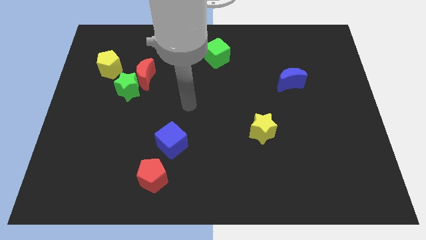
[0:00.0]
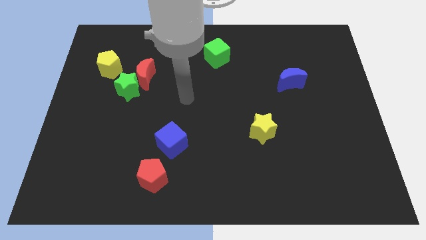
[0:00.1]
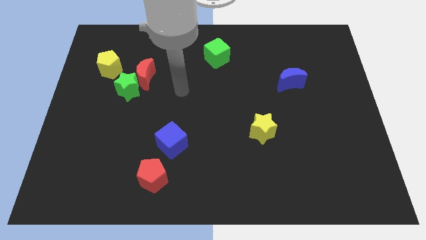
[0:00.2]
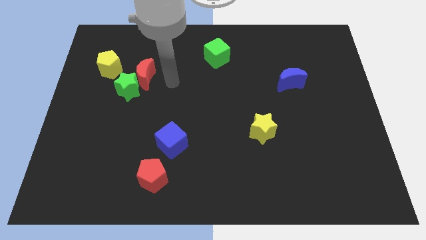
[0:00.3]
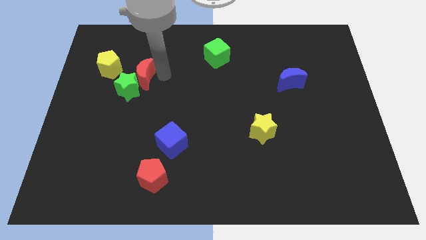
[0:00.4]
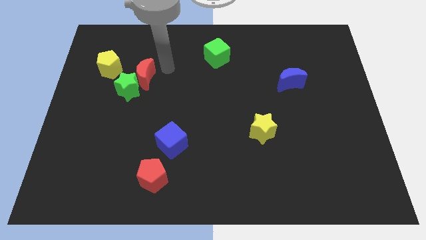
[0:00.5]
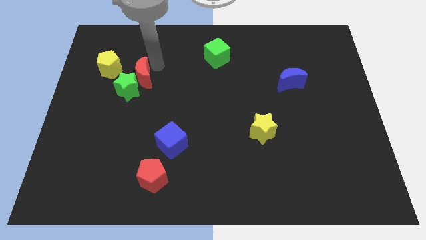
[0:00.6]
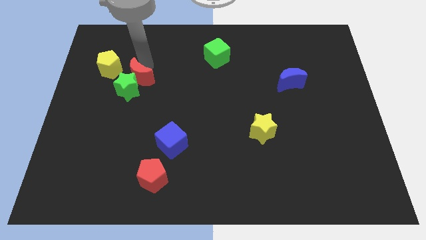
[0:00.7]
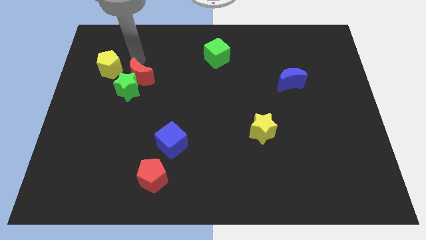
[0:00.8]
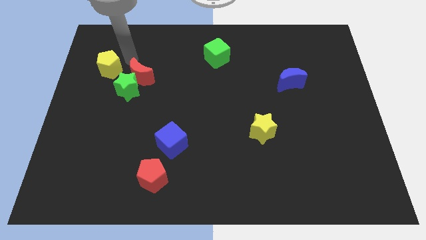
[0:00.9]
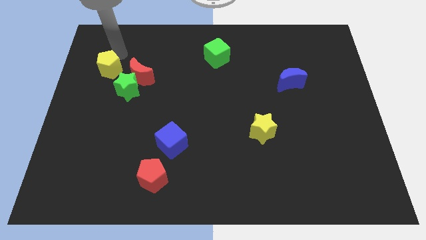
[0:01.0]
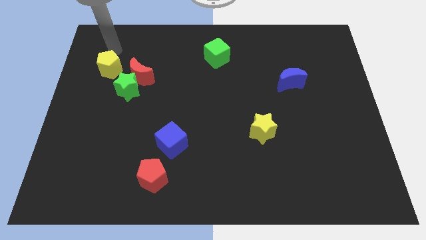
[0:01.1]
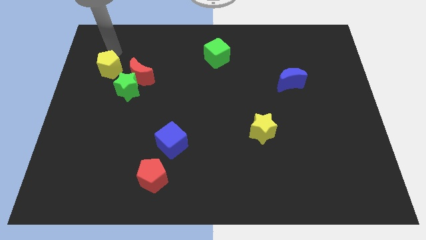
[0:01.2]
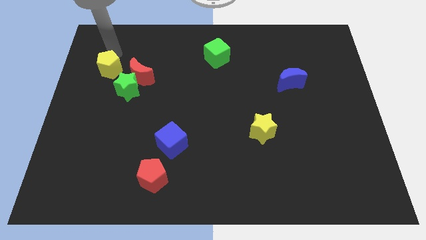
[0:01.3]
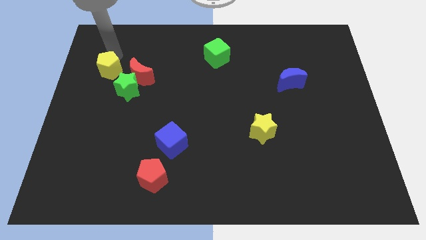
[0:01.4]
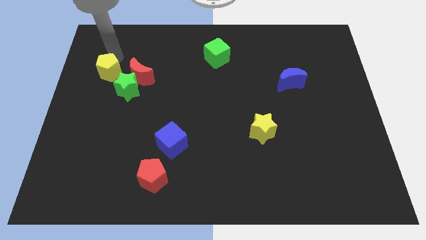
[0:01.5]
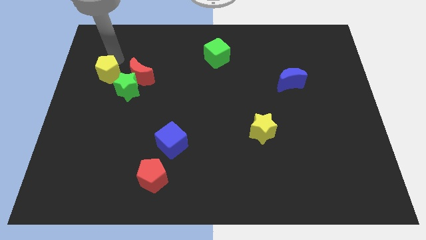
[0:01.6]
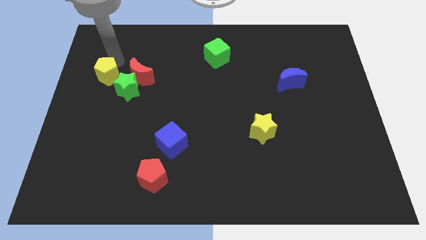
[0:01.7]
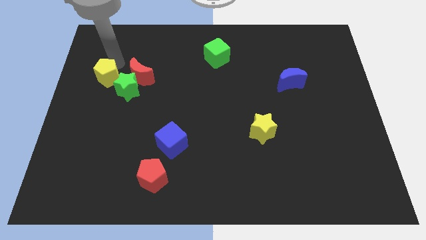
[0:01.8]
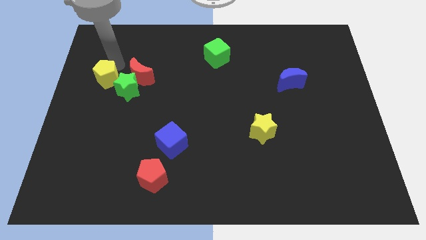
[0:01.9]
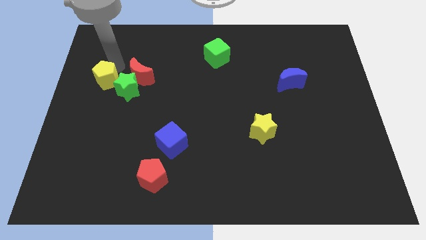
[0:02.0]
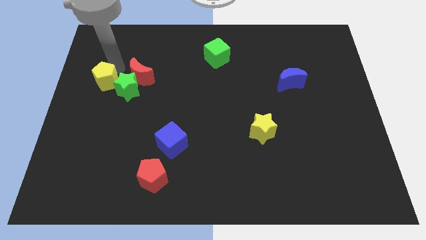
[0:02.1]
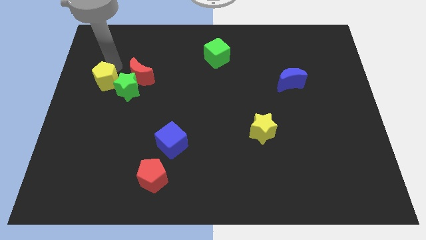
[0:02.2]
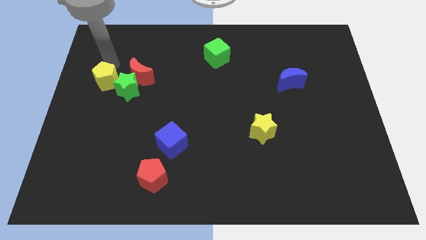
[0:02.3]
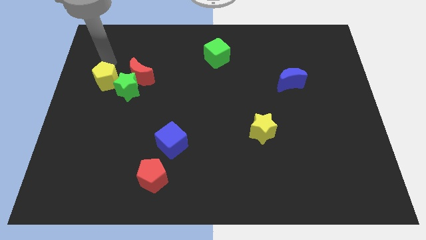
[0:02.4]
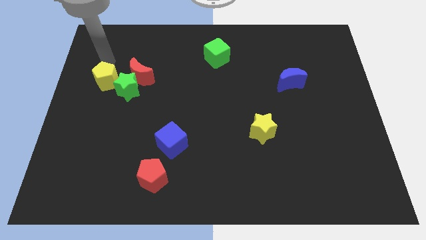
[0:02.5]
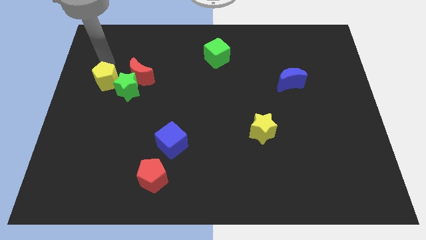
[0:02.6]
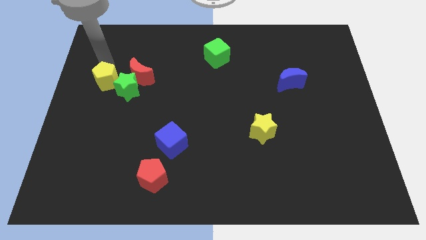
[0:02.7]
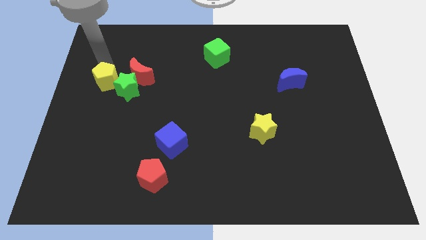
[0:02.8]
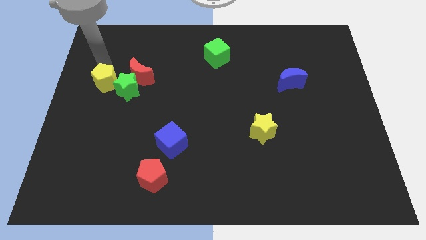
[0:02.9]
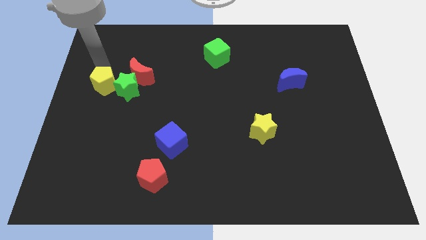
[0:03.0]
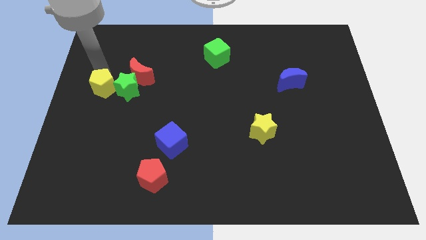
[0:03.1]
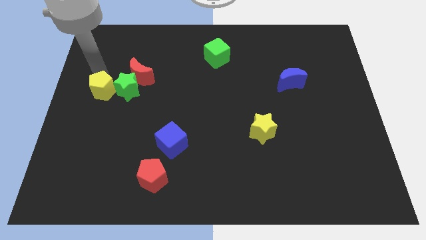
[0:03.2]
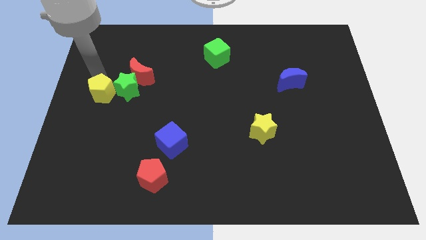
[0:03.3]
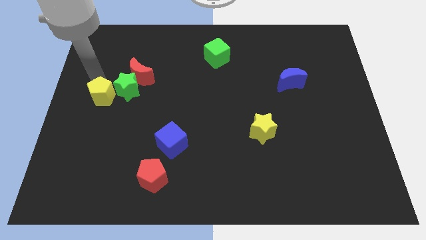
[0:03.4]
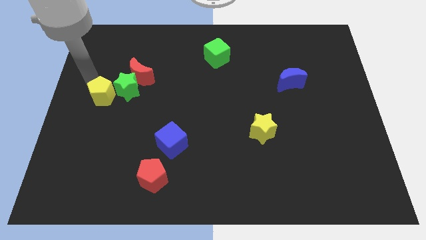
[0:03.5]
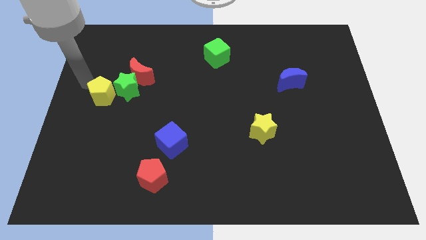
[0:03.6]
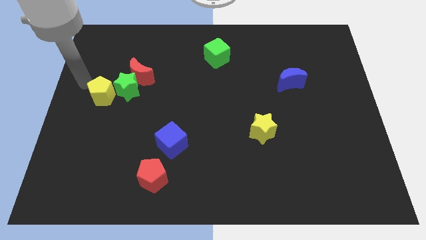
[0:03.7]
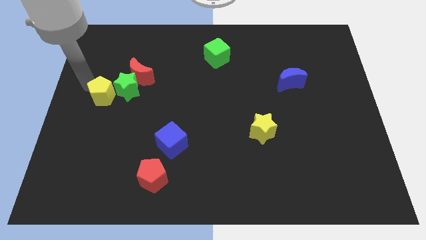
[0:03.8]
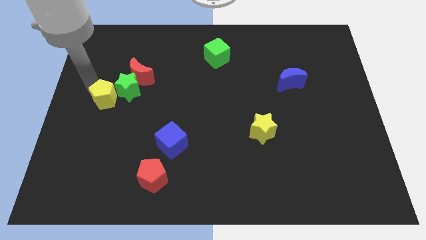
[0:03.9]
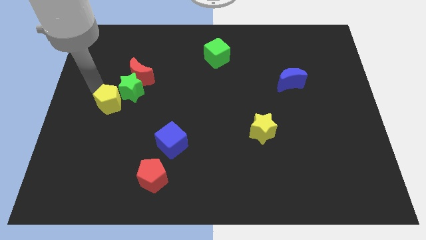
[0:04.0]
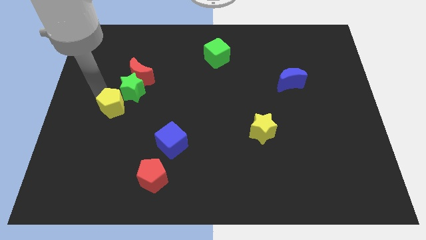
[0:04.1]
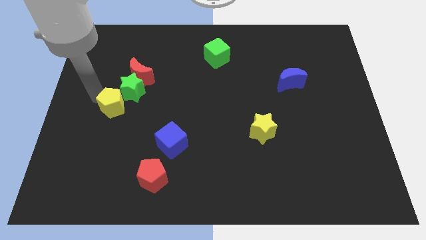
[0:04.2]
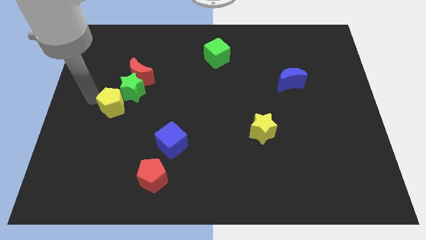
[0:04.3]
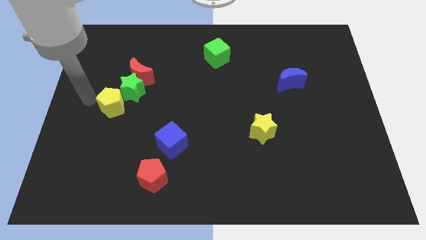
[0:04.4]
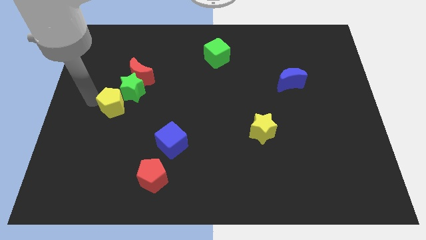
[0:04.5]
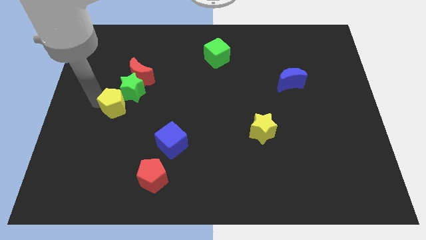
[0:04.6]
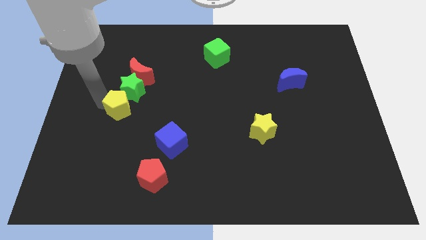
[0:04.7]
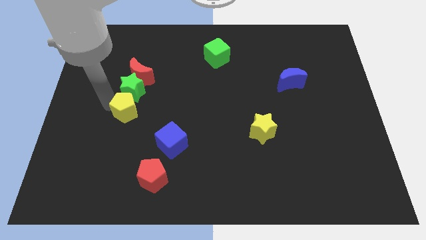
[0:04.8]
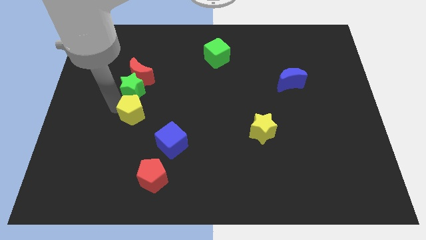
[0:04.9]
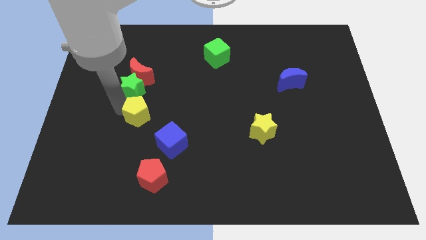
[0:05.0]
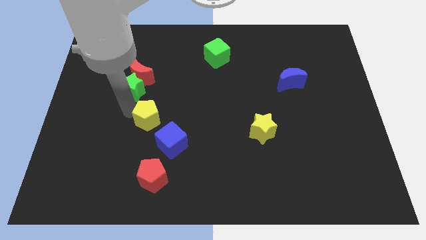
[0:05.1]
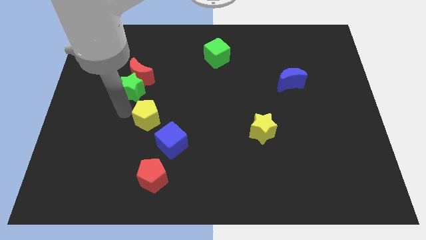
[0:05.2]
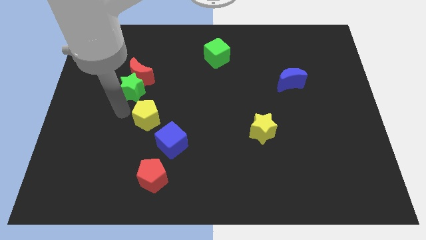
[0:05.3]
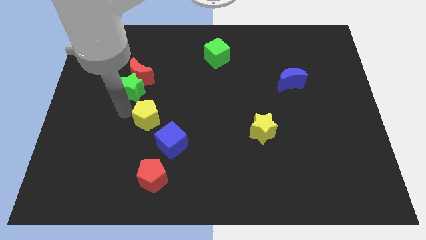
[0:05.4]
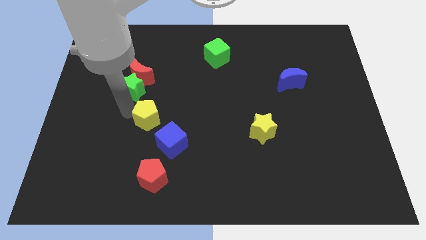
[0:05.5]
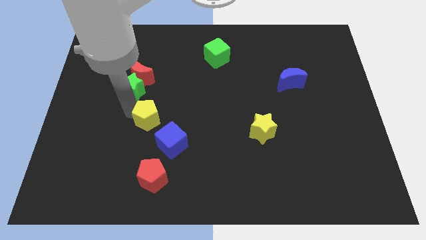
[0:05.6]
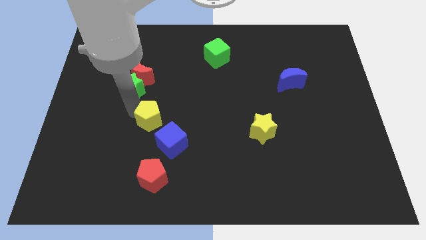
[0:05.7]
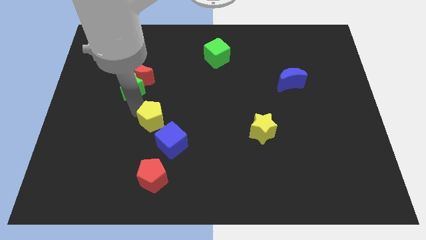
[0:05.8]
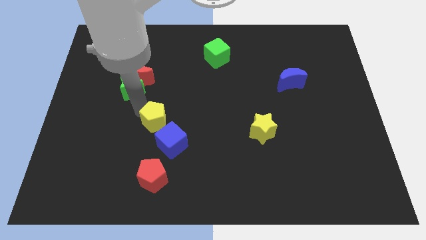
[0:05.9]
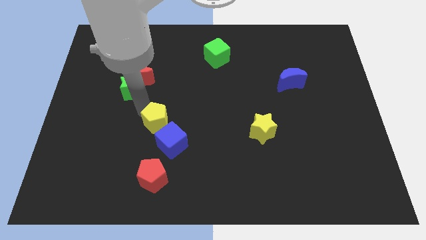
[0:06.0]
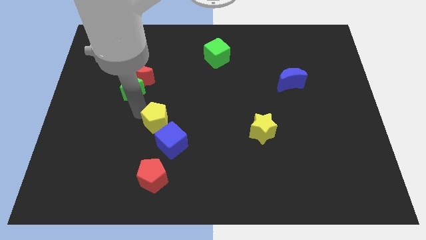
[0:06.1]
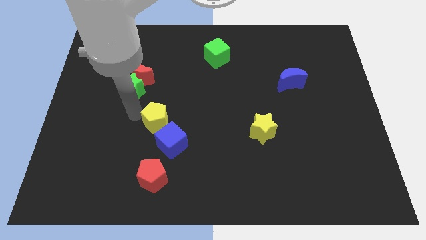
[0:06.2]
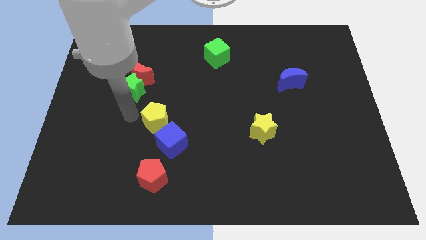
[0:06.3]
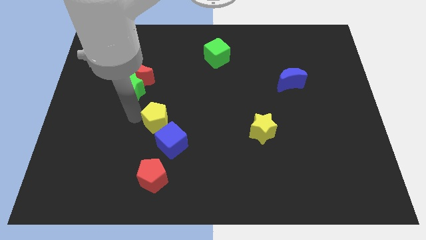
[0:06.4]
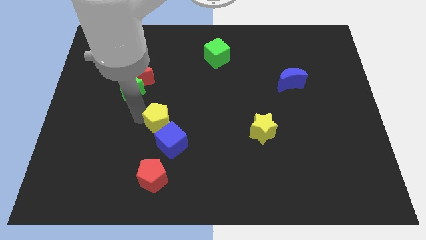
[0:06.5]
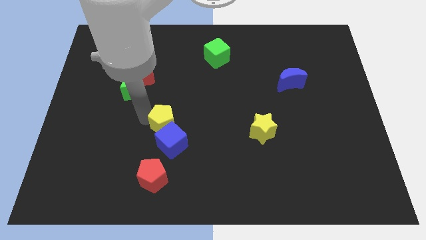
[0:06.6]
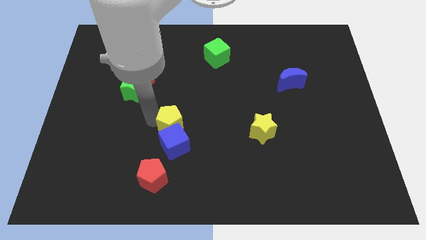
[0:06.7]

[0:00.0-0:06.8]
slide the yellow pentagon to the top right of the blue cube

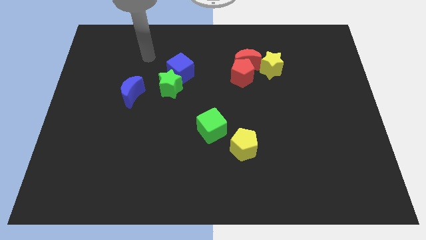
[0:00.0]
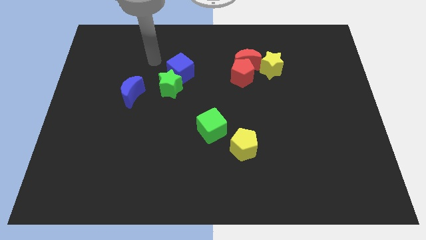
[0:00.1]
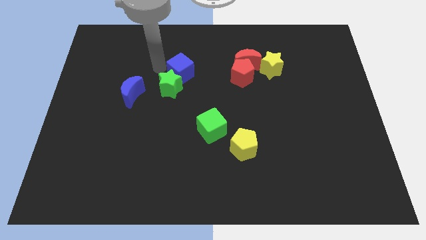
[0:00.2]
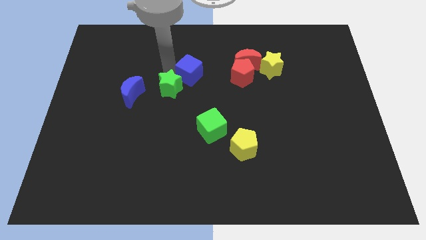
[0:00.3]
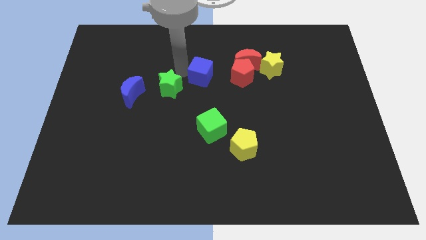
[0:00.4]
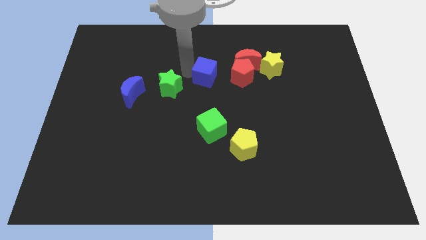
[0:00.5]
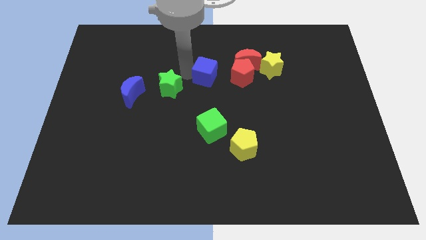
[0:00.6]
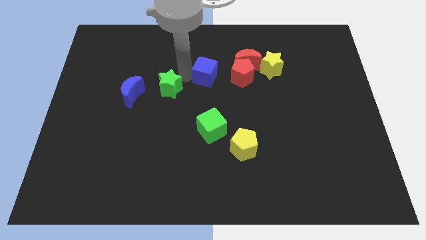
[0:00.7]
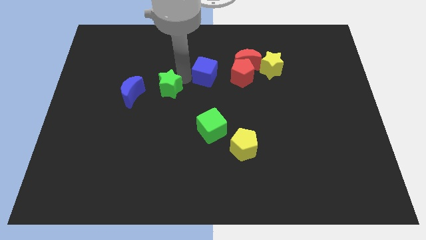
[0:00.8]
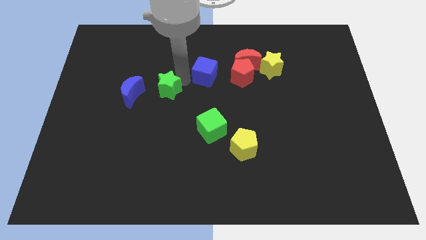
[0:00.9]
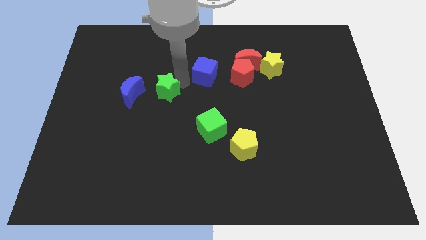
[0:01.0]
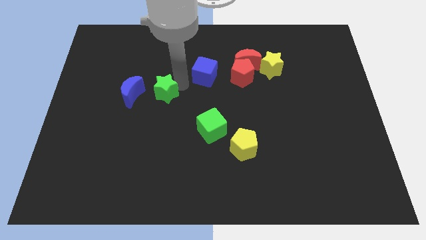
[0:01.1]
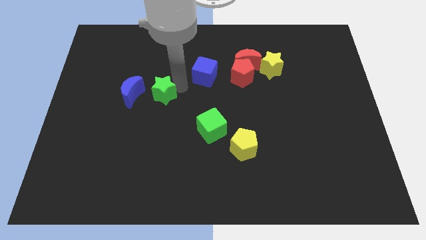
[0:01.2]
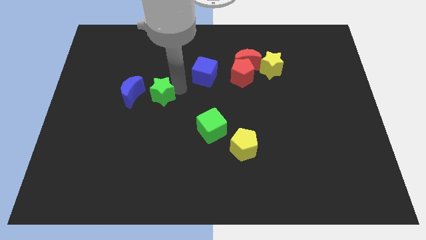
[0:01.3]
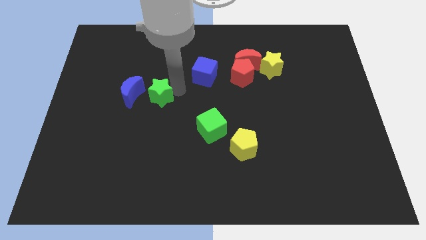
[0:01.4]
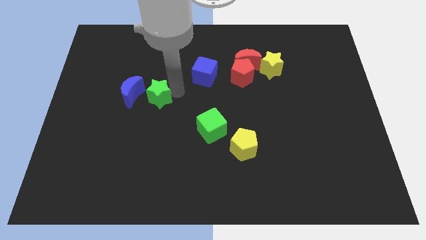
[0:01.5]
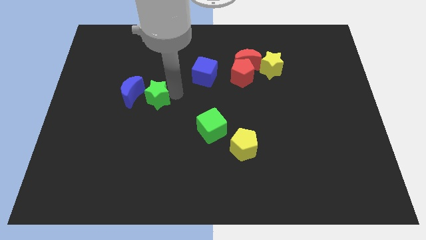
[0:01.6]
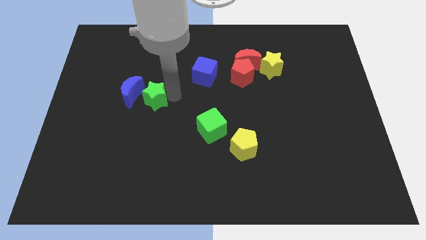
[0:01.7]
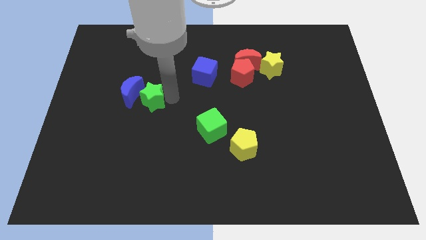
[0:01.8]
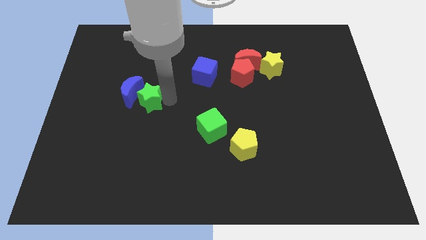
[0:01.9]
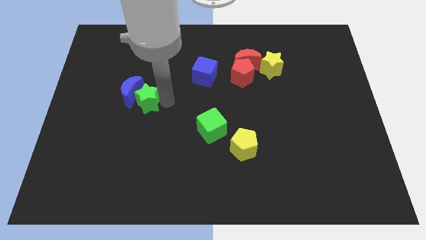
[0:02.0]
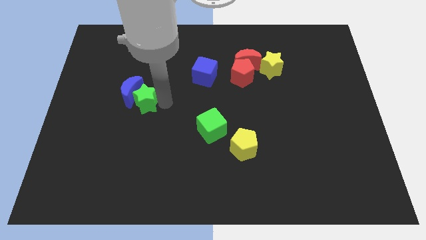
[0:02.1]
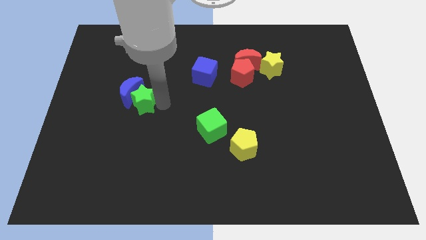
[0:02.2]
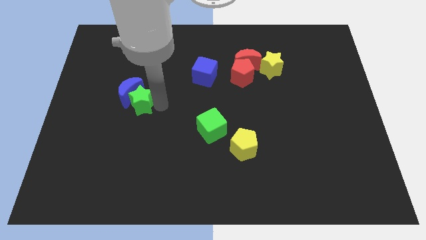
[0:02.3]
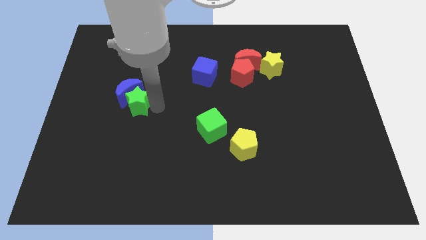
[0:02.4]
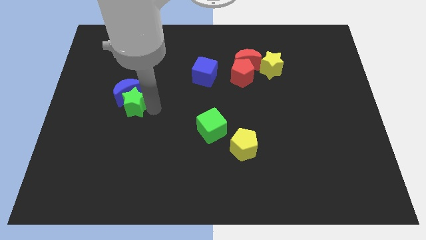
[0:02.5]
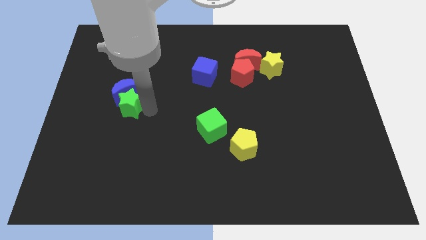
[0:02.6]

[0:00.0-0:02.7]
move the green star to the bottom left side of the blue moon
